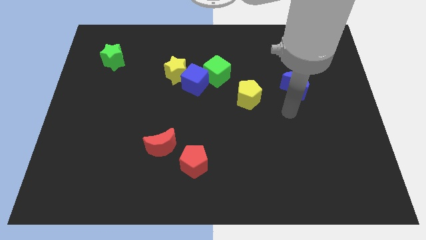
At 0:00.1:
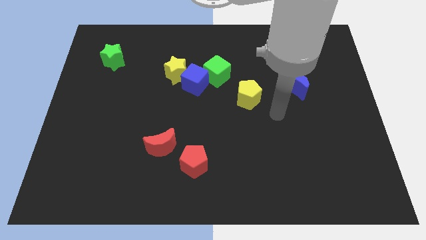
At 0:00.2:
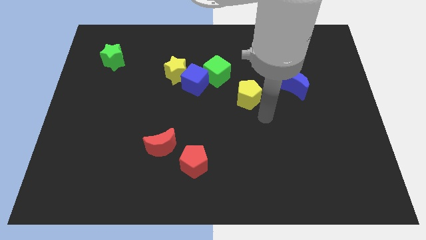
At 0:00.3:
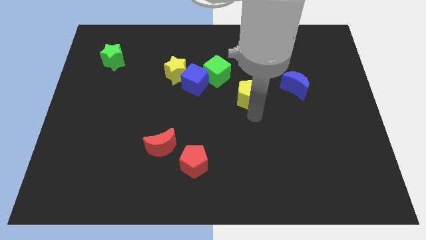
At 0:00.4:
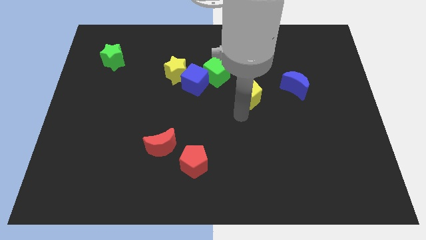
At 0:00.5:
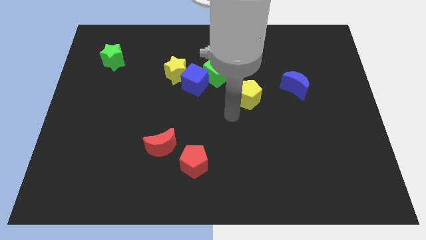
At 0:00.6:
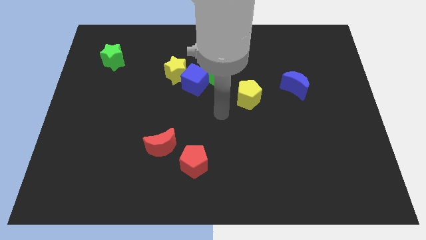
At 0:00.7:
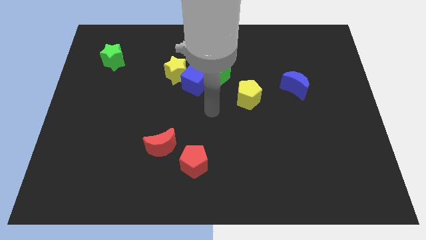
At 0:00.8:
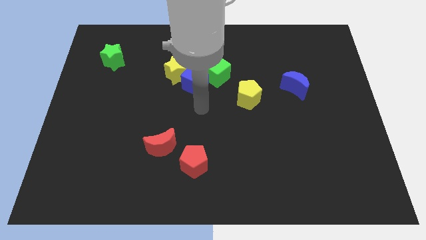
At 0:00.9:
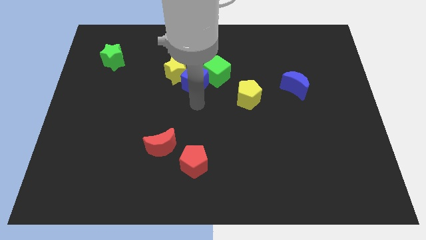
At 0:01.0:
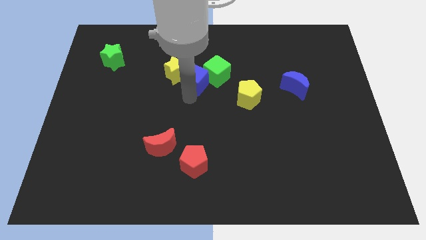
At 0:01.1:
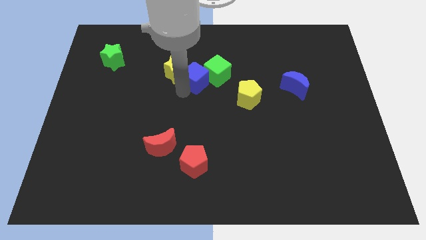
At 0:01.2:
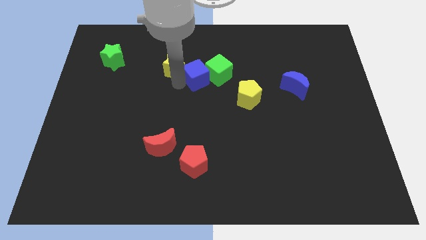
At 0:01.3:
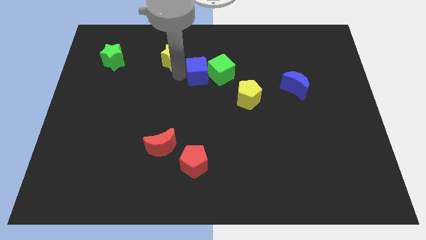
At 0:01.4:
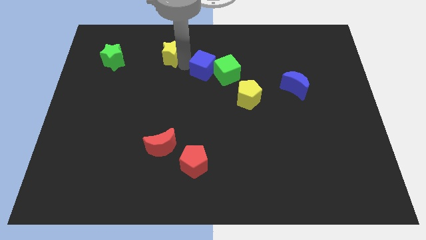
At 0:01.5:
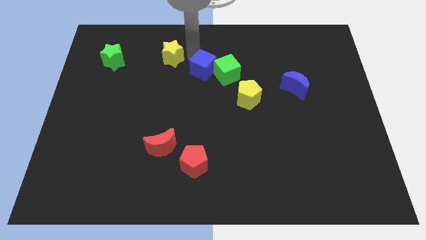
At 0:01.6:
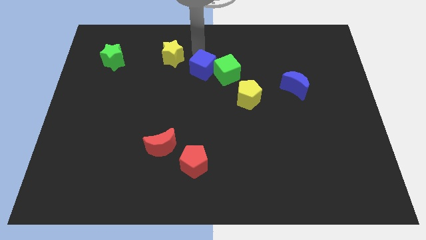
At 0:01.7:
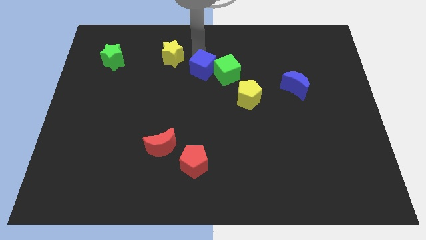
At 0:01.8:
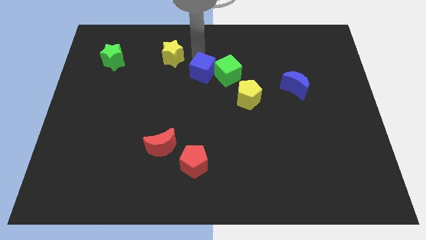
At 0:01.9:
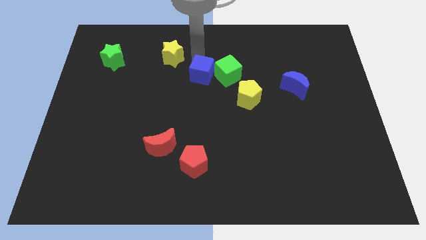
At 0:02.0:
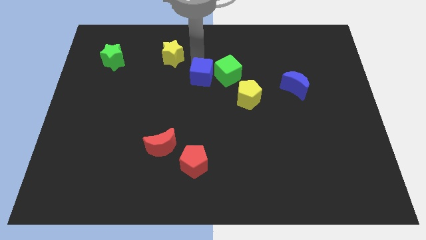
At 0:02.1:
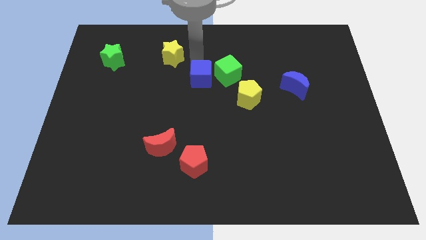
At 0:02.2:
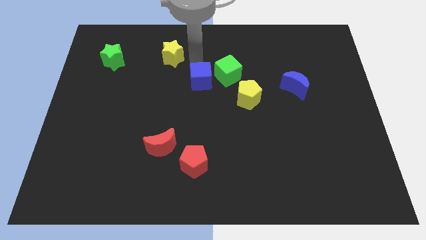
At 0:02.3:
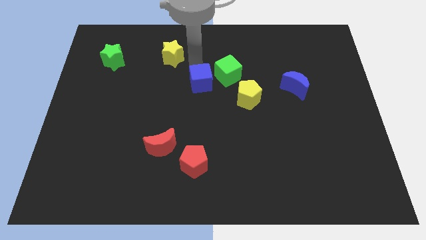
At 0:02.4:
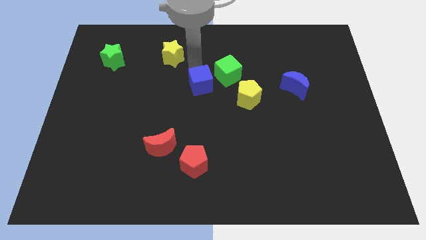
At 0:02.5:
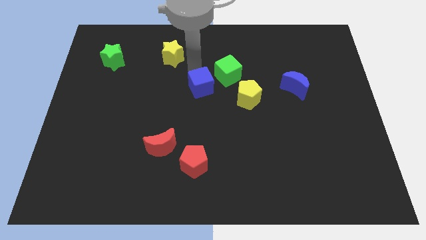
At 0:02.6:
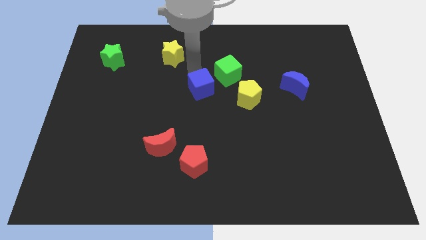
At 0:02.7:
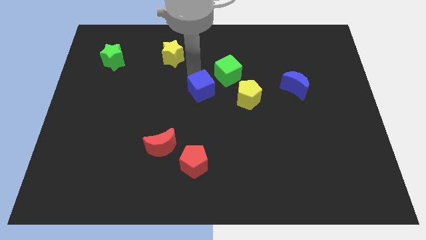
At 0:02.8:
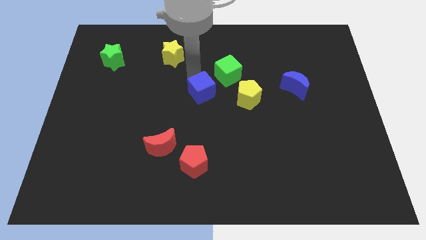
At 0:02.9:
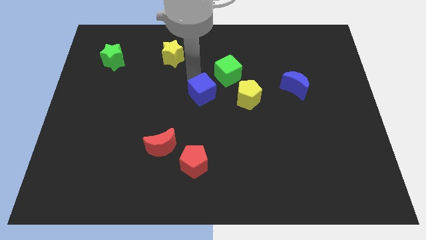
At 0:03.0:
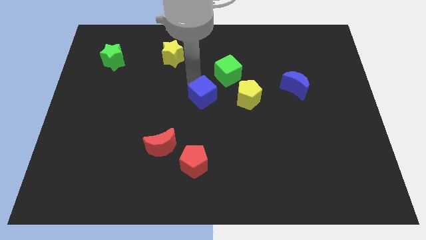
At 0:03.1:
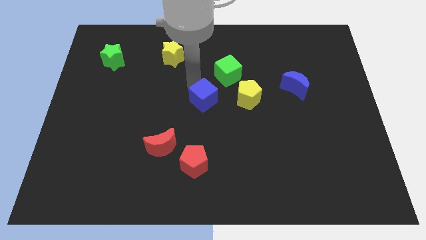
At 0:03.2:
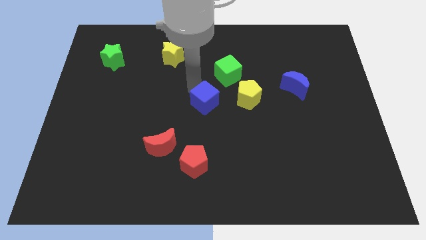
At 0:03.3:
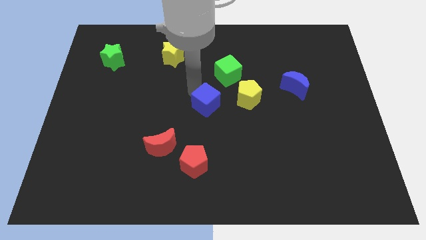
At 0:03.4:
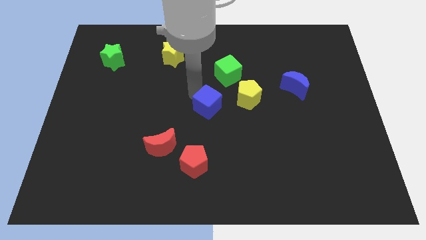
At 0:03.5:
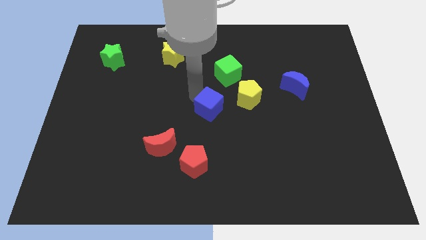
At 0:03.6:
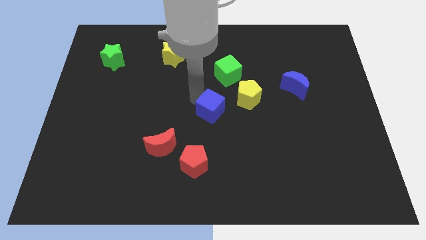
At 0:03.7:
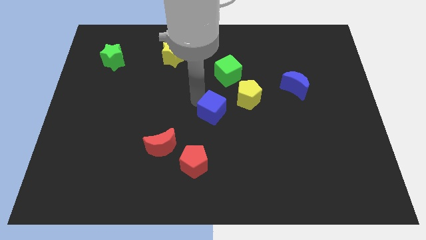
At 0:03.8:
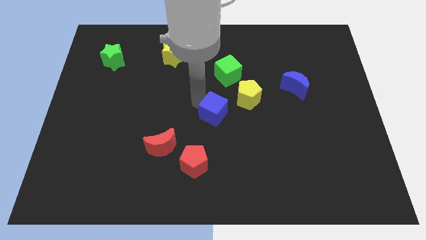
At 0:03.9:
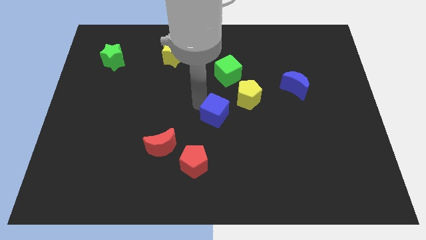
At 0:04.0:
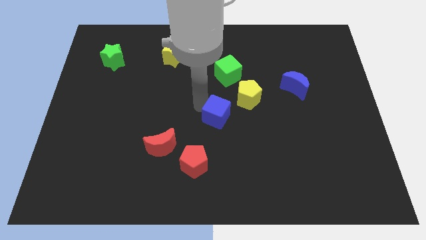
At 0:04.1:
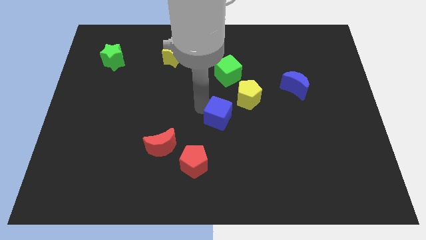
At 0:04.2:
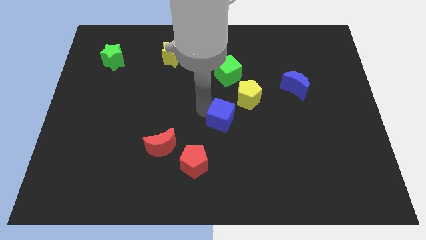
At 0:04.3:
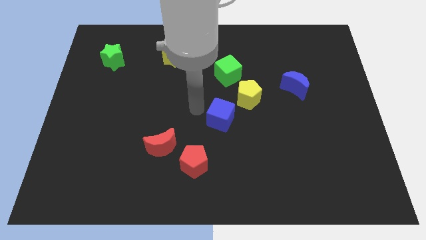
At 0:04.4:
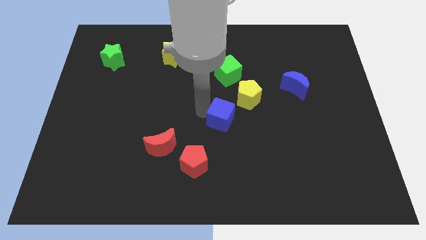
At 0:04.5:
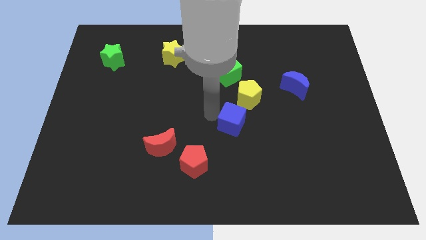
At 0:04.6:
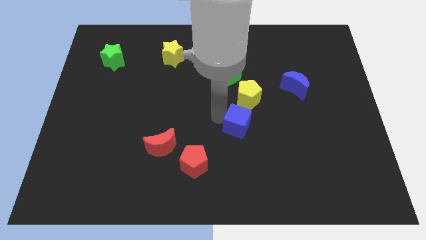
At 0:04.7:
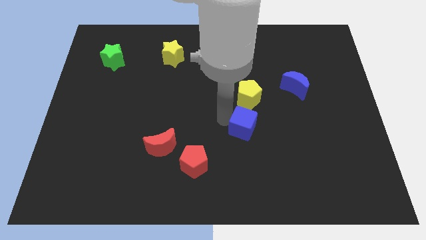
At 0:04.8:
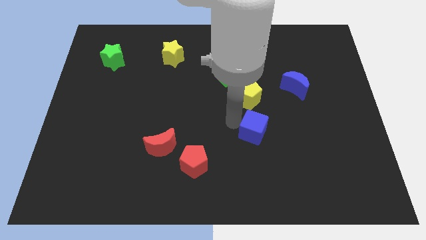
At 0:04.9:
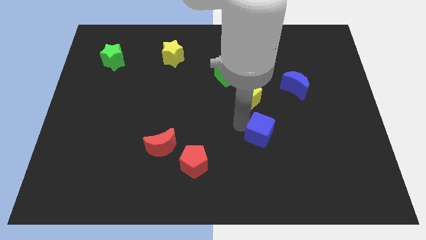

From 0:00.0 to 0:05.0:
slide the blue cube downwards and to the right

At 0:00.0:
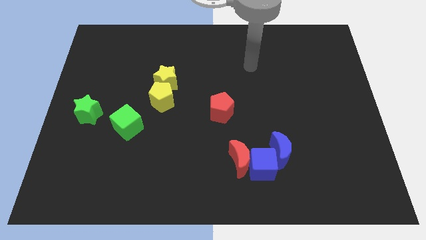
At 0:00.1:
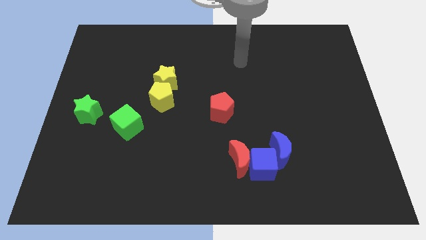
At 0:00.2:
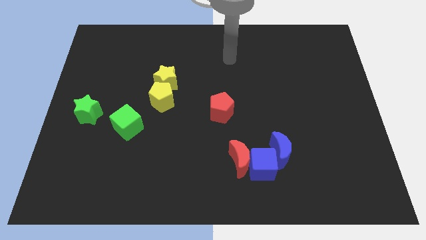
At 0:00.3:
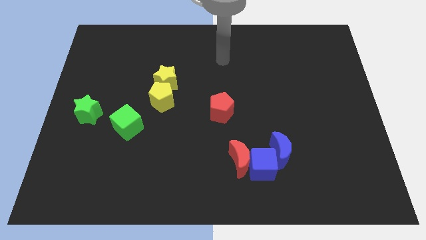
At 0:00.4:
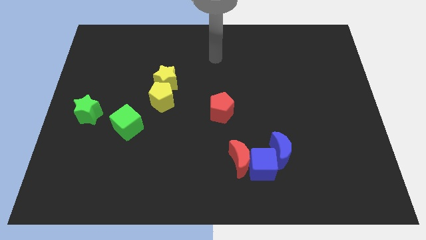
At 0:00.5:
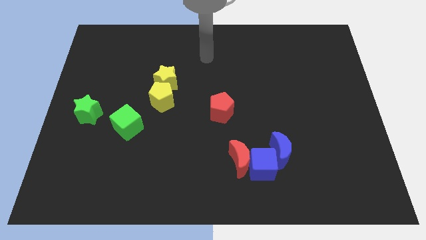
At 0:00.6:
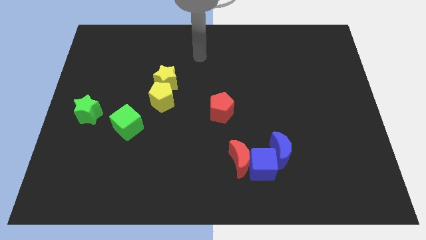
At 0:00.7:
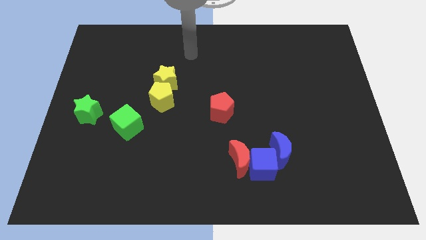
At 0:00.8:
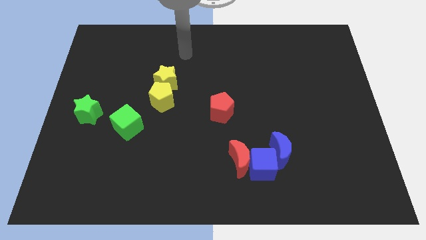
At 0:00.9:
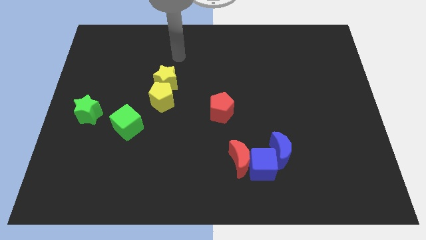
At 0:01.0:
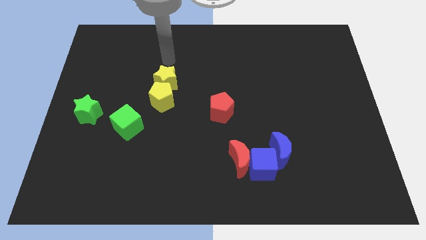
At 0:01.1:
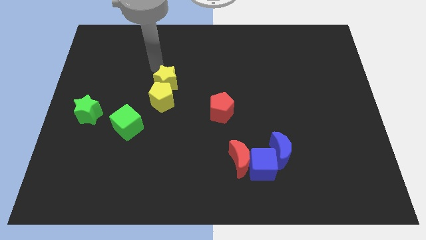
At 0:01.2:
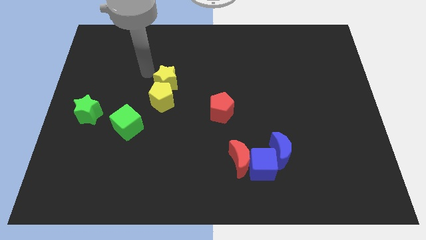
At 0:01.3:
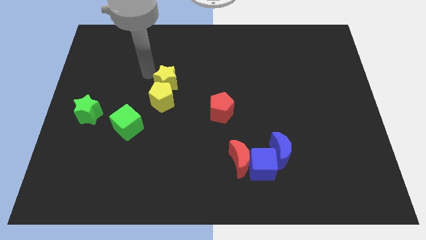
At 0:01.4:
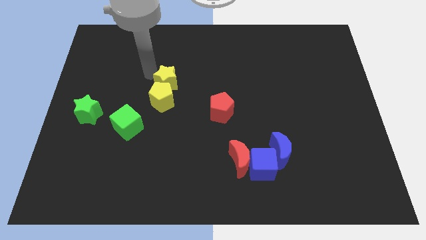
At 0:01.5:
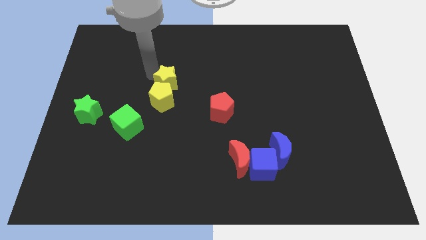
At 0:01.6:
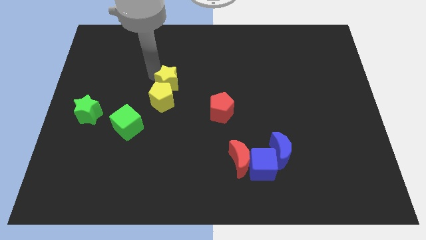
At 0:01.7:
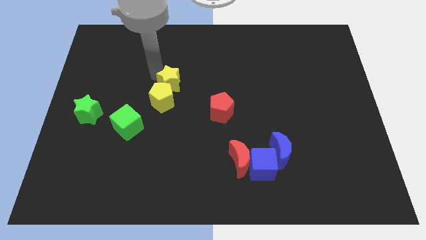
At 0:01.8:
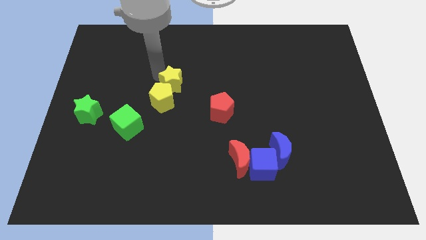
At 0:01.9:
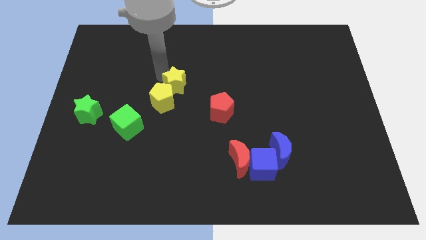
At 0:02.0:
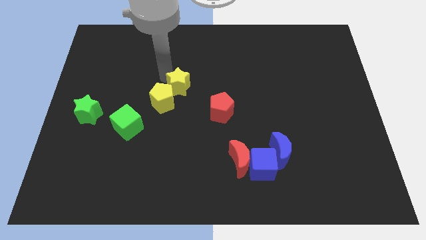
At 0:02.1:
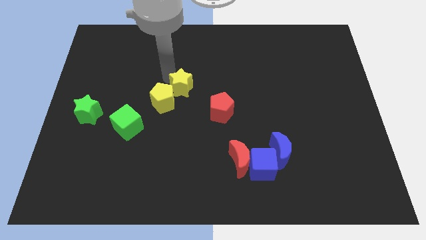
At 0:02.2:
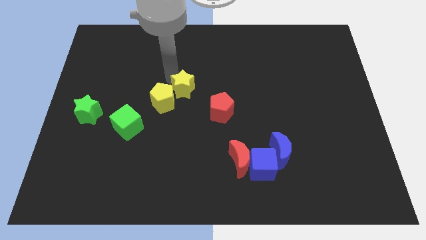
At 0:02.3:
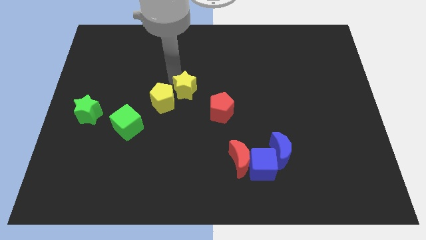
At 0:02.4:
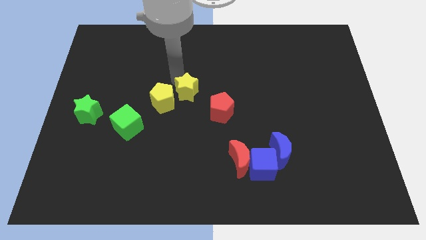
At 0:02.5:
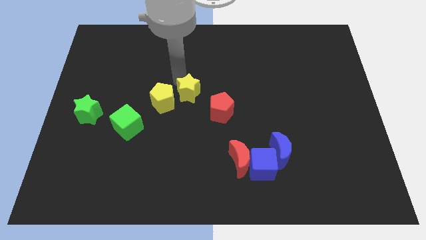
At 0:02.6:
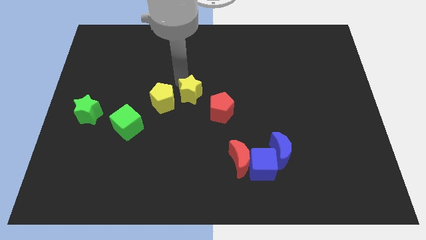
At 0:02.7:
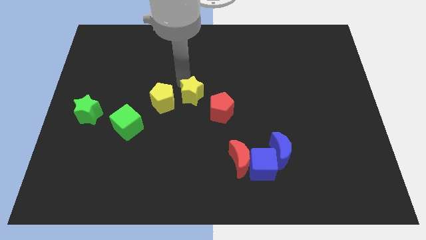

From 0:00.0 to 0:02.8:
push the yellow star down and then to the right a bit
